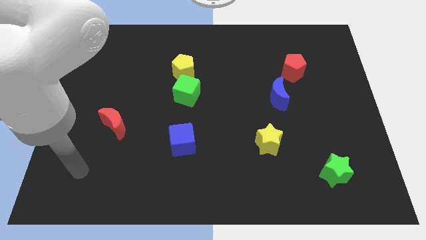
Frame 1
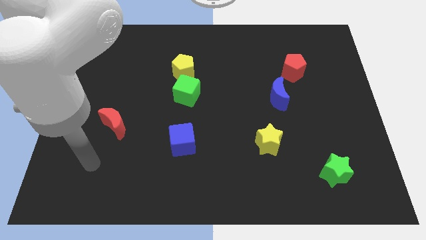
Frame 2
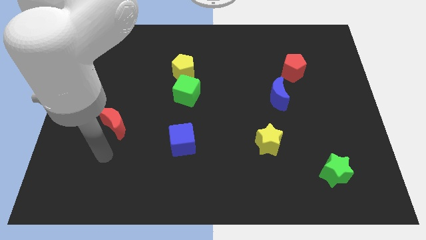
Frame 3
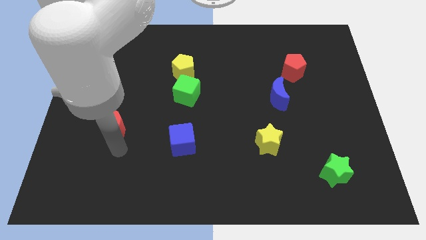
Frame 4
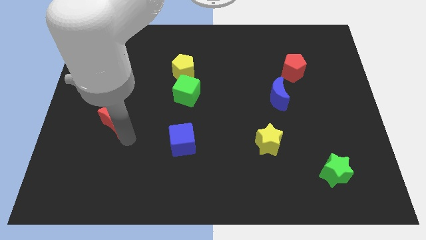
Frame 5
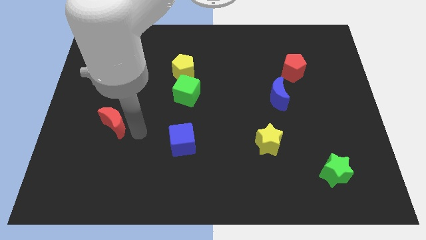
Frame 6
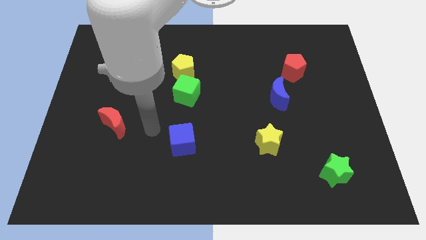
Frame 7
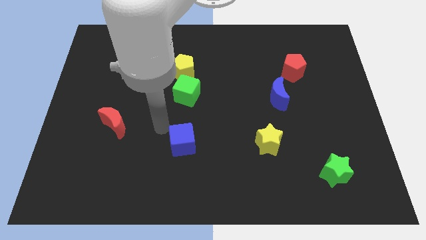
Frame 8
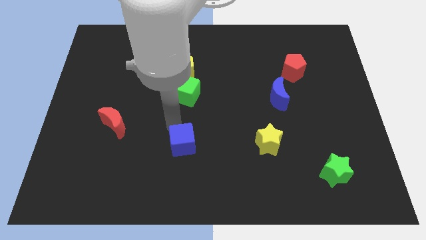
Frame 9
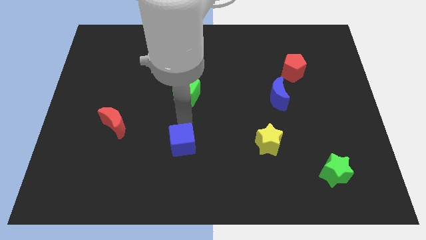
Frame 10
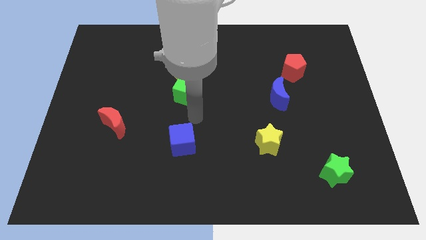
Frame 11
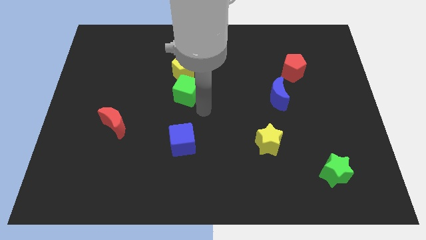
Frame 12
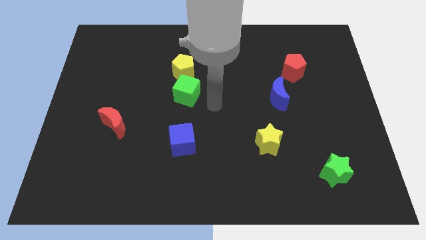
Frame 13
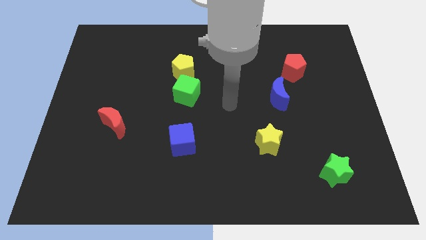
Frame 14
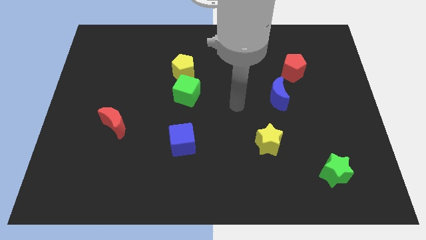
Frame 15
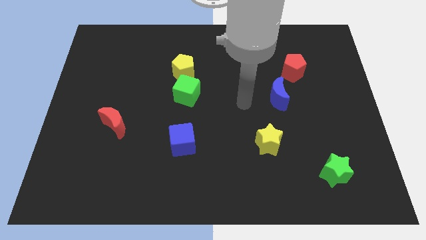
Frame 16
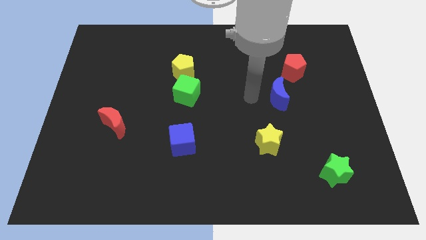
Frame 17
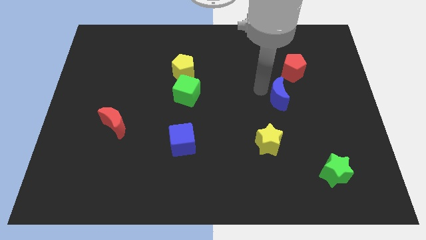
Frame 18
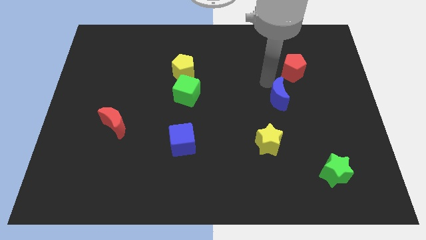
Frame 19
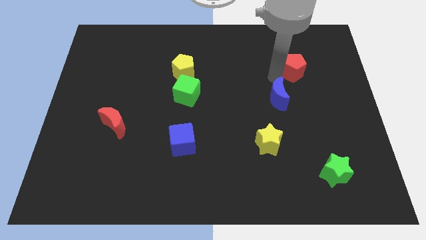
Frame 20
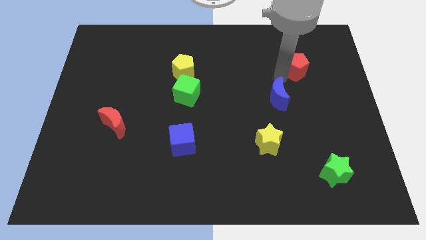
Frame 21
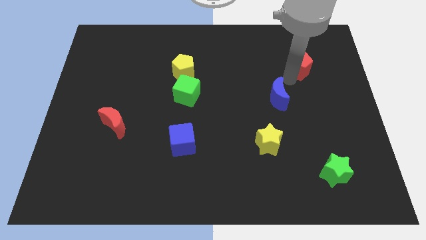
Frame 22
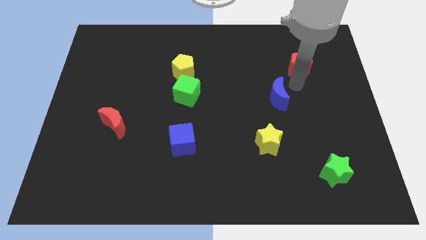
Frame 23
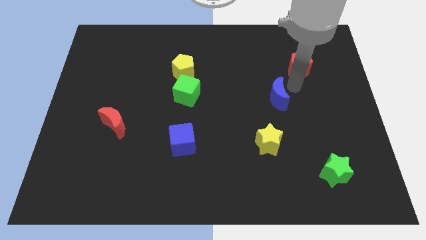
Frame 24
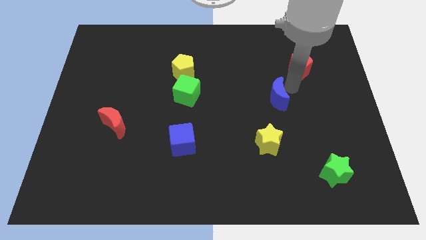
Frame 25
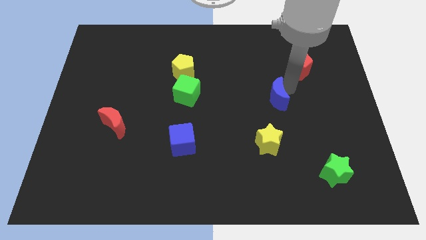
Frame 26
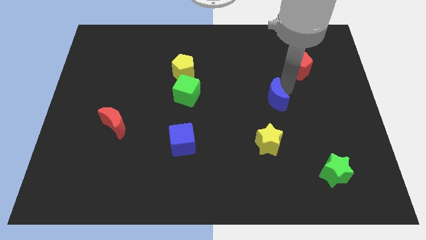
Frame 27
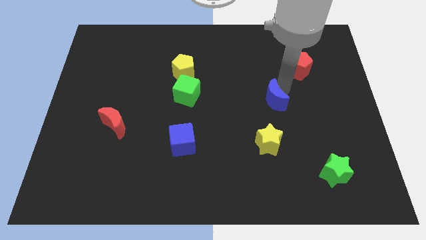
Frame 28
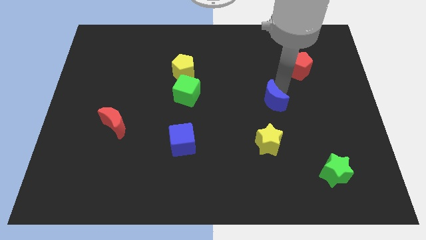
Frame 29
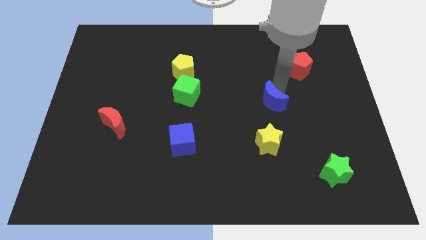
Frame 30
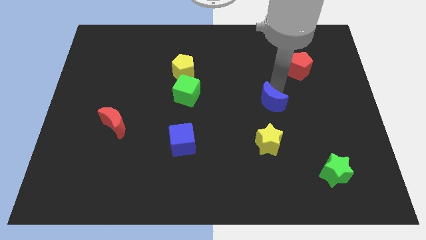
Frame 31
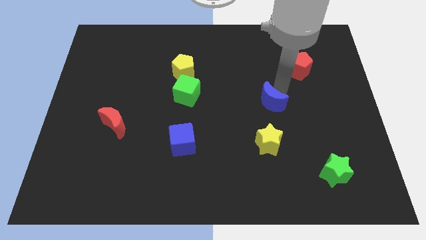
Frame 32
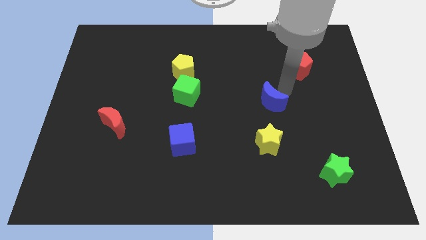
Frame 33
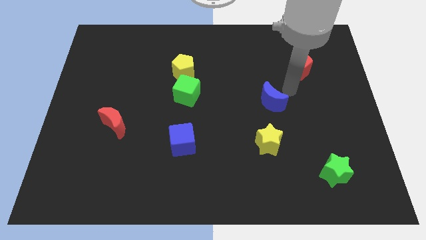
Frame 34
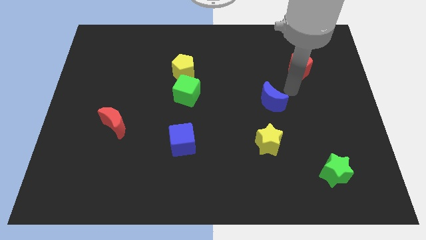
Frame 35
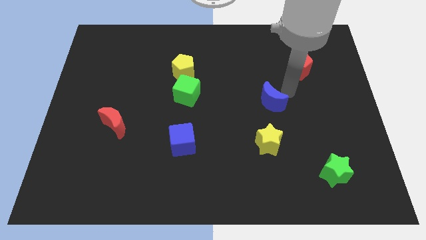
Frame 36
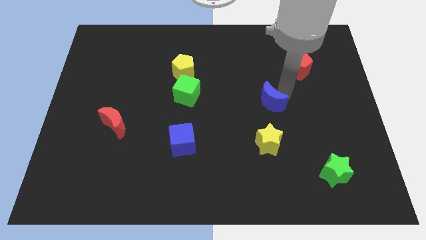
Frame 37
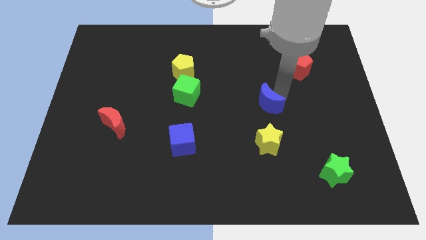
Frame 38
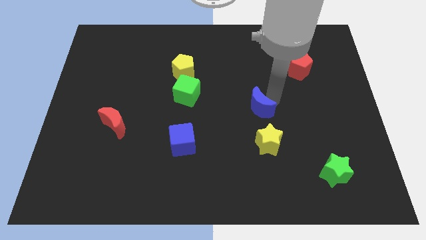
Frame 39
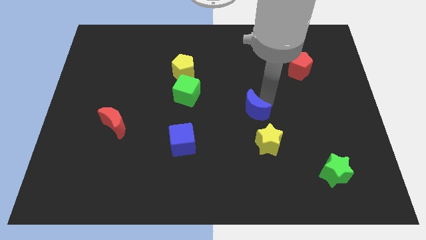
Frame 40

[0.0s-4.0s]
slightly push the blue moon downwards and left

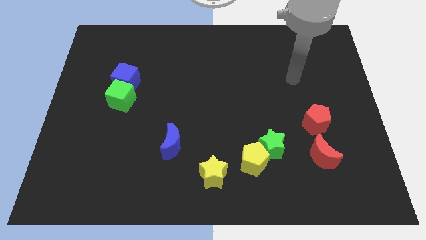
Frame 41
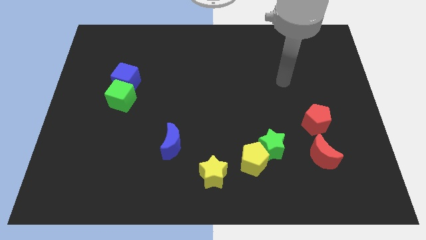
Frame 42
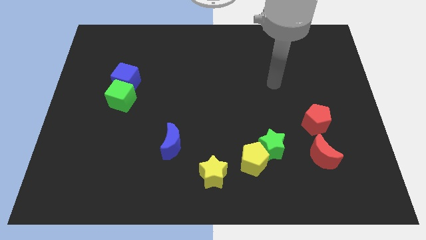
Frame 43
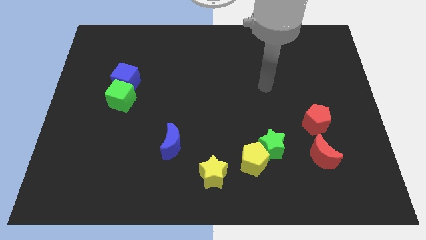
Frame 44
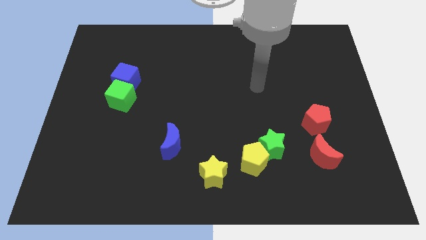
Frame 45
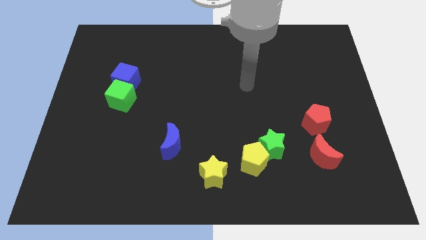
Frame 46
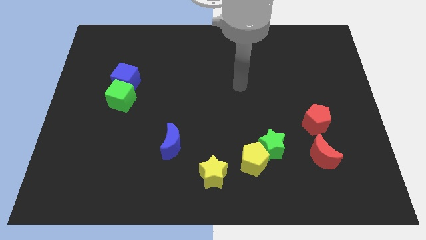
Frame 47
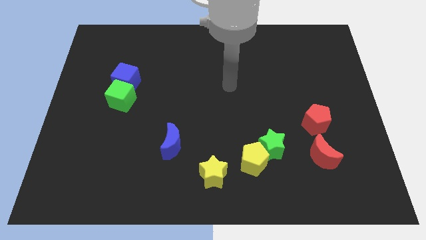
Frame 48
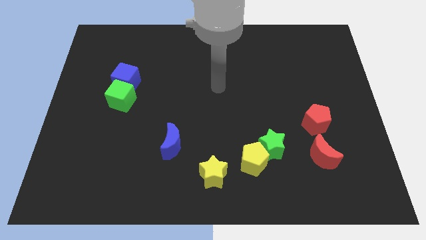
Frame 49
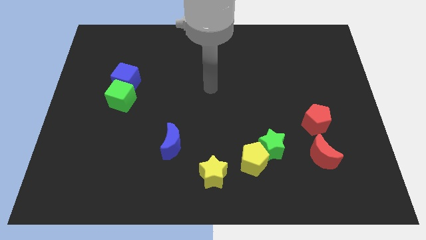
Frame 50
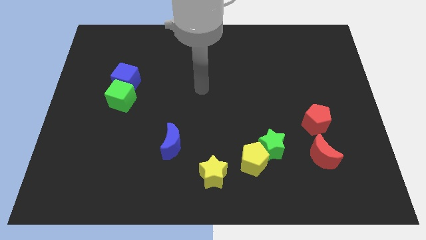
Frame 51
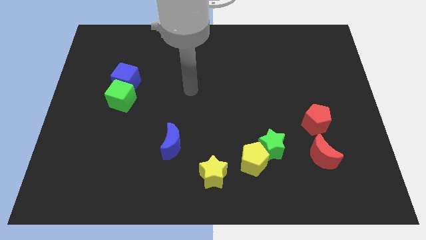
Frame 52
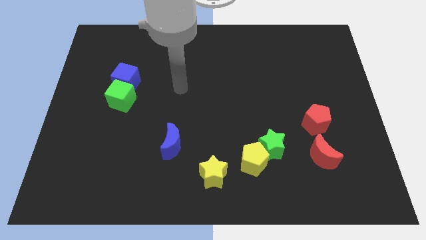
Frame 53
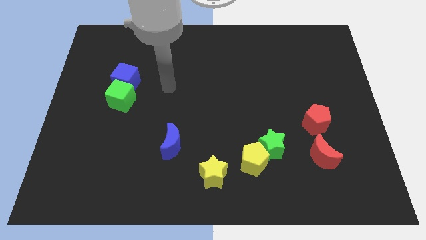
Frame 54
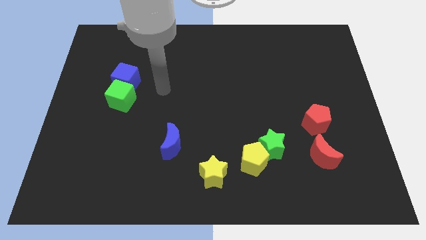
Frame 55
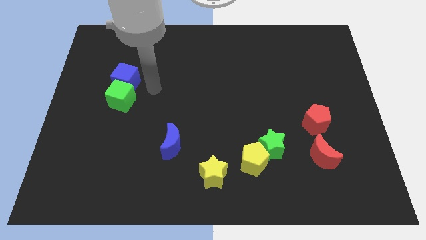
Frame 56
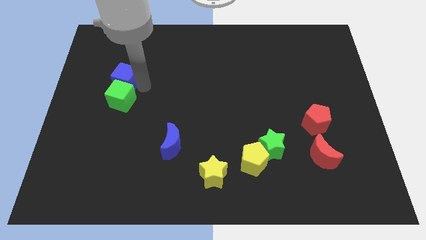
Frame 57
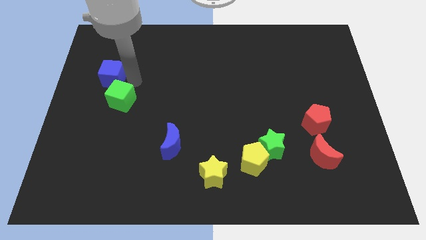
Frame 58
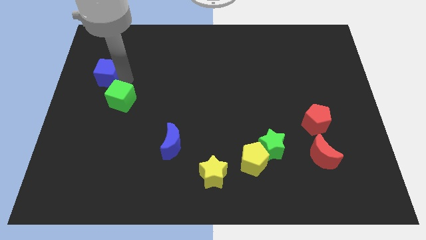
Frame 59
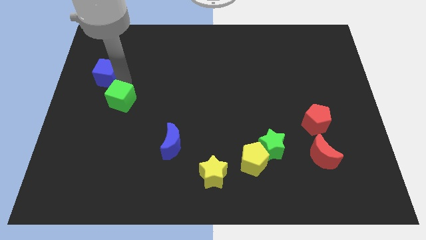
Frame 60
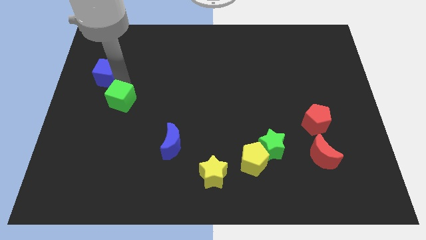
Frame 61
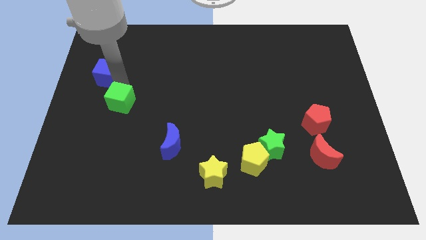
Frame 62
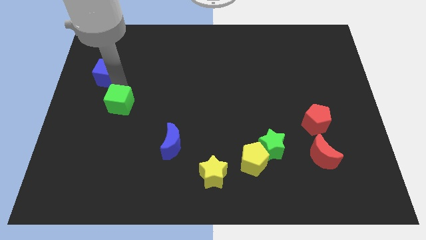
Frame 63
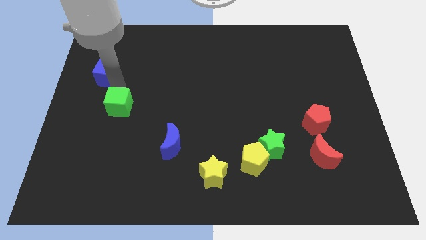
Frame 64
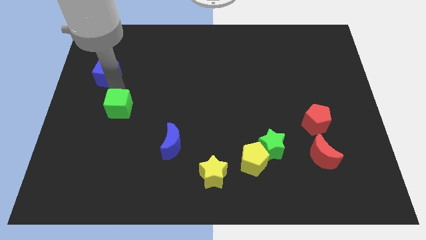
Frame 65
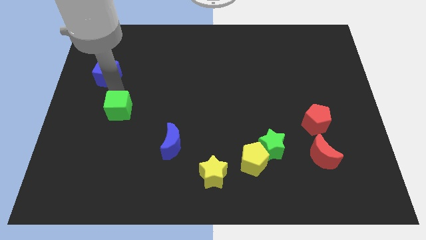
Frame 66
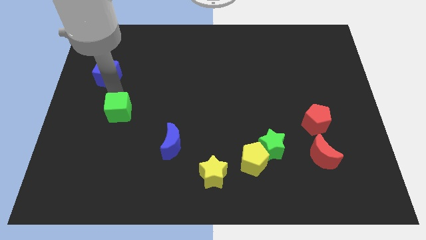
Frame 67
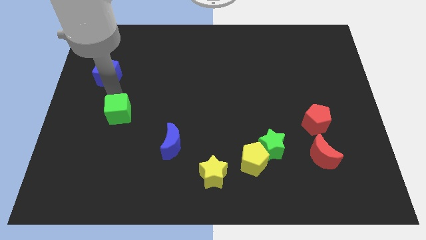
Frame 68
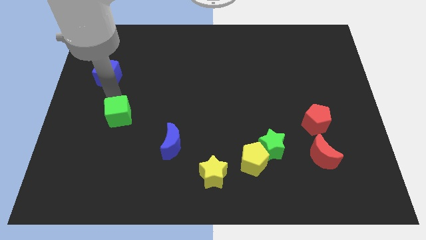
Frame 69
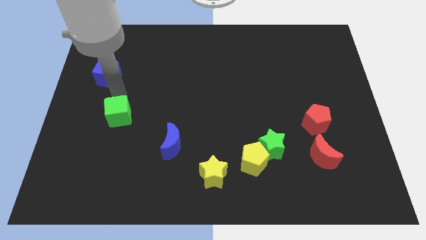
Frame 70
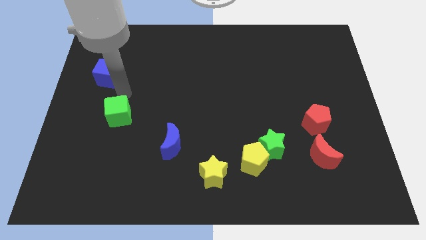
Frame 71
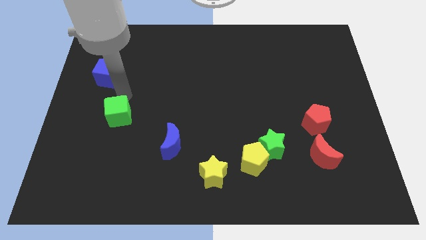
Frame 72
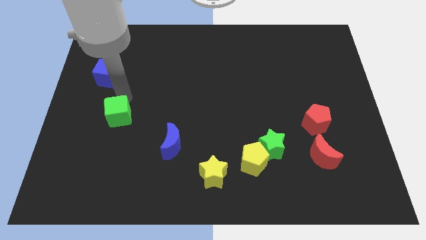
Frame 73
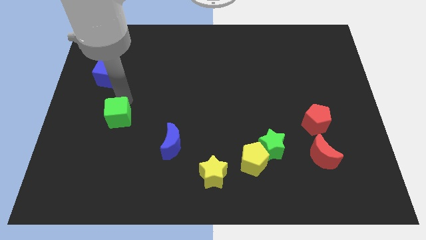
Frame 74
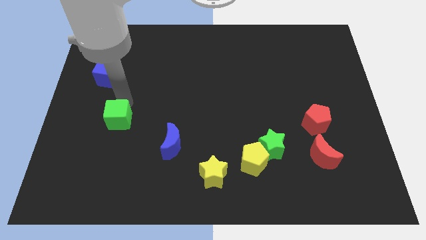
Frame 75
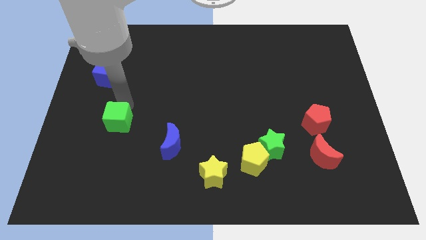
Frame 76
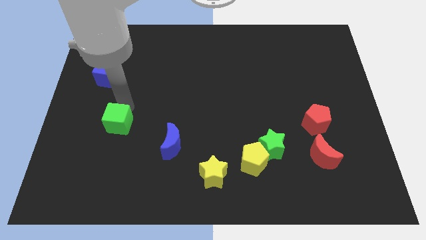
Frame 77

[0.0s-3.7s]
move the green cube down somewhat

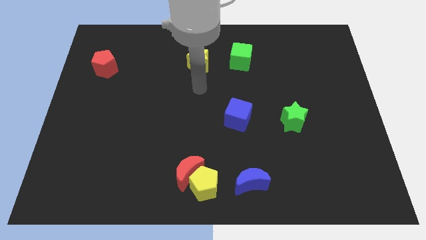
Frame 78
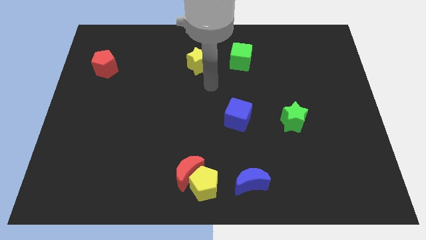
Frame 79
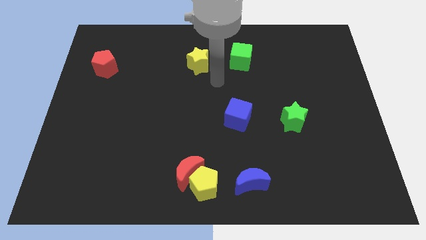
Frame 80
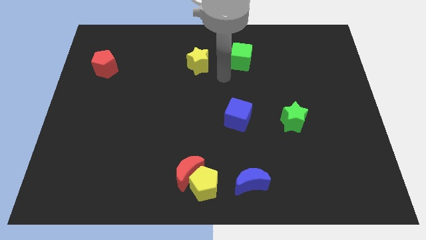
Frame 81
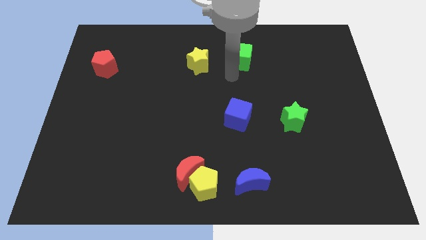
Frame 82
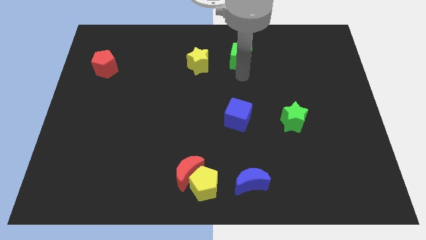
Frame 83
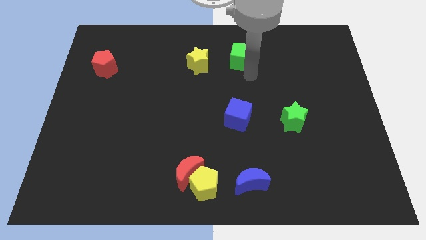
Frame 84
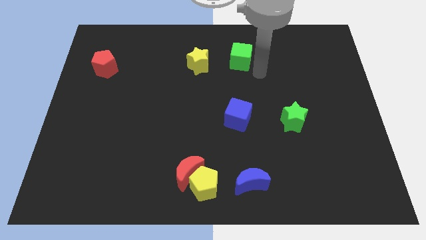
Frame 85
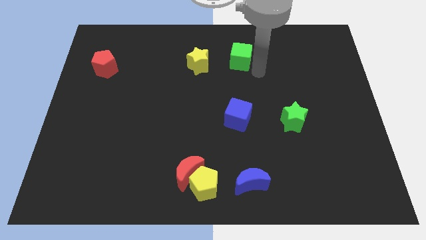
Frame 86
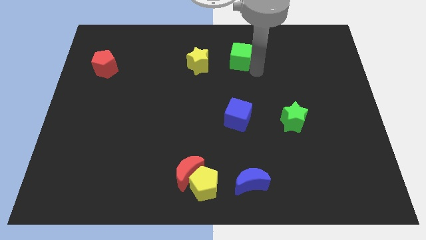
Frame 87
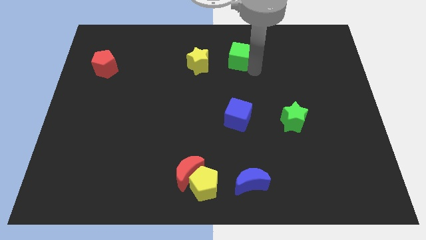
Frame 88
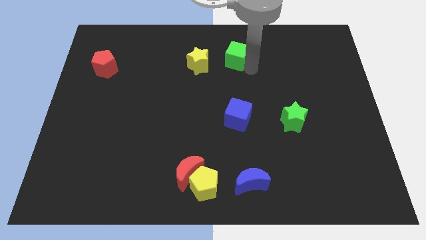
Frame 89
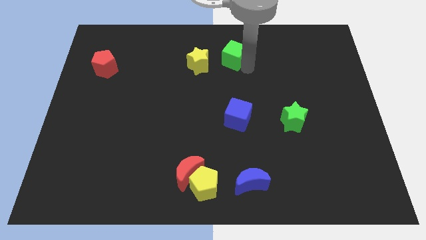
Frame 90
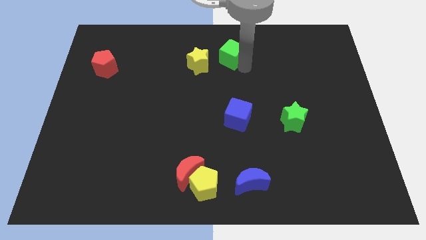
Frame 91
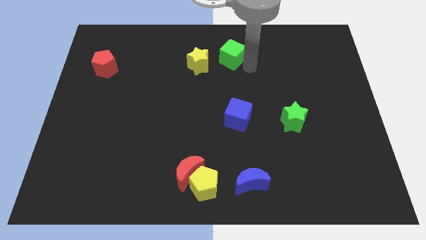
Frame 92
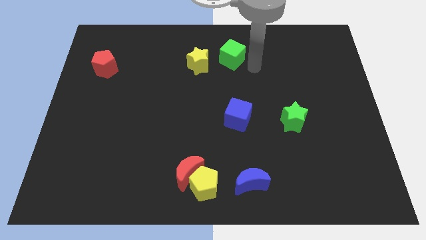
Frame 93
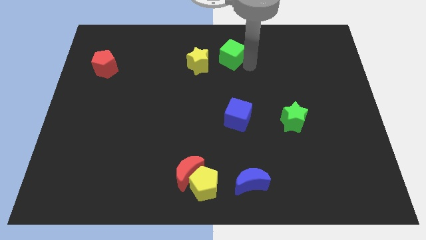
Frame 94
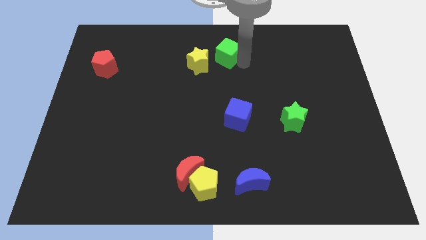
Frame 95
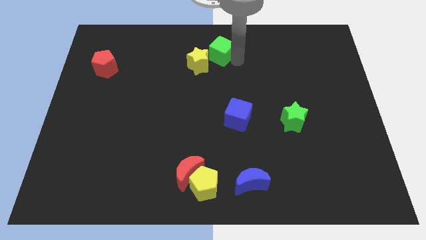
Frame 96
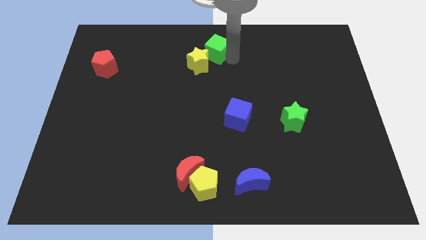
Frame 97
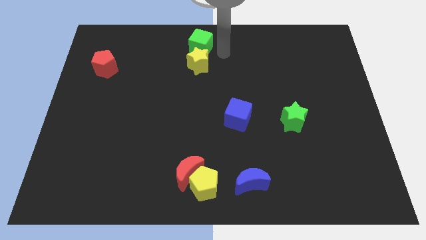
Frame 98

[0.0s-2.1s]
slightly move the green cube left
